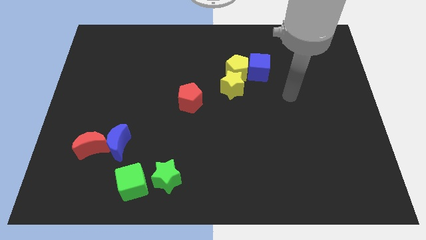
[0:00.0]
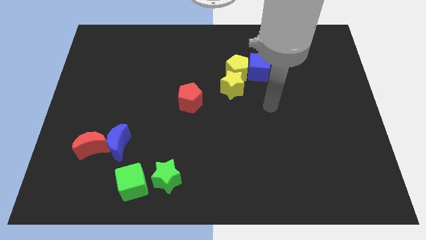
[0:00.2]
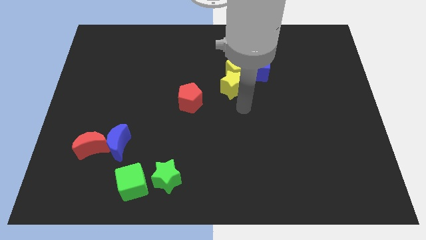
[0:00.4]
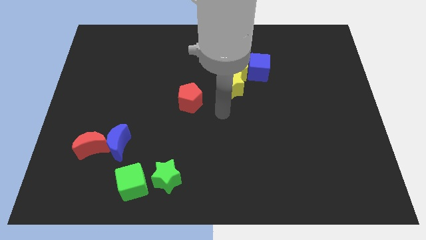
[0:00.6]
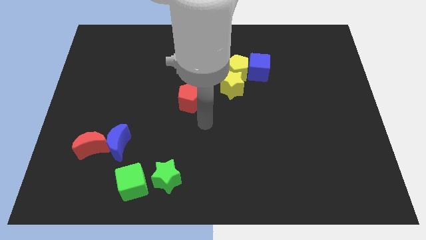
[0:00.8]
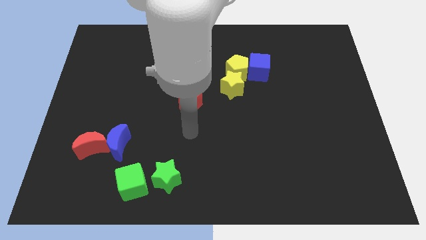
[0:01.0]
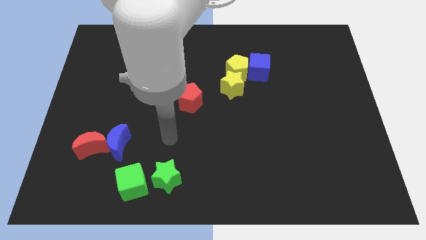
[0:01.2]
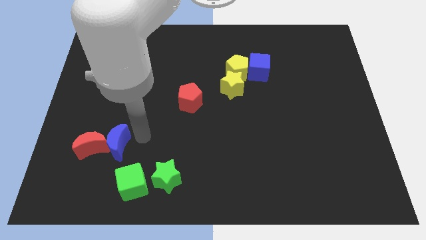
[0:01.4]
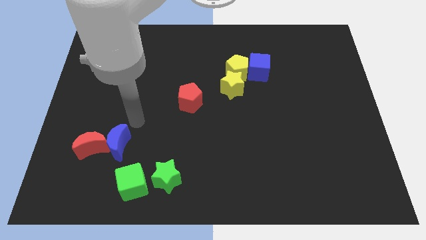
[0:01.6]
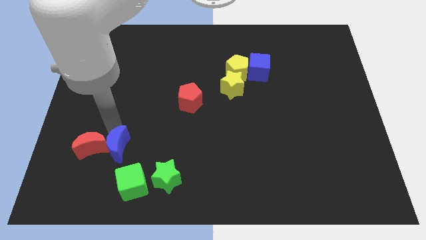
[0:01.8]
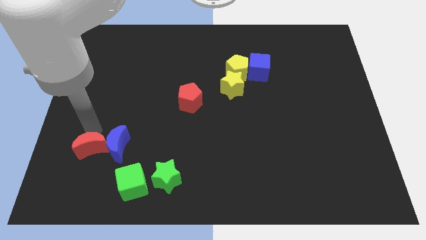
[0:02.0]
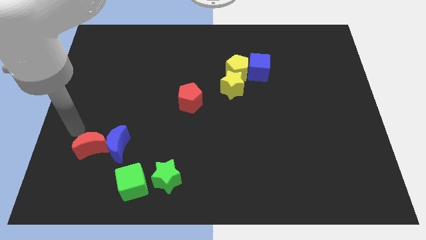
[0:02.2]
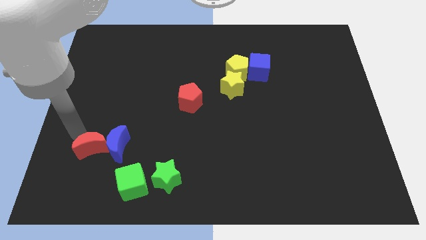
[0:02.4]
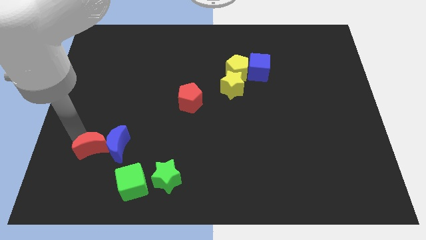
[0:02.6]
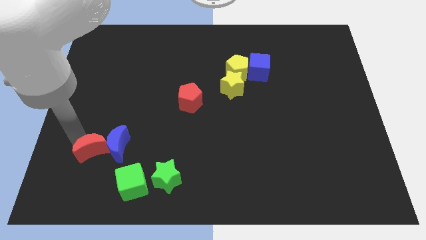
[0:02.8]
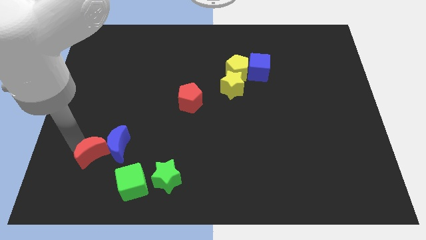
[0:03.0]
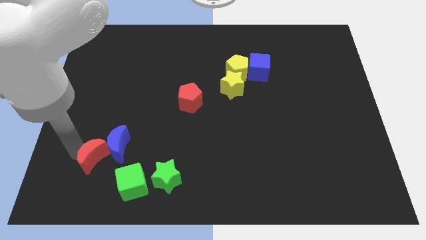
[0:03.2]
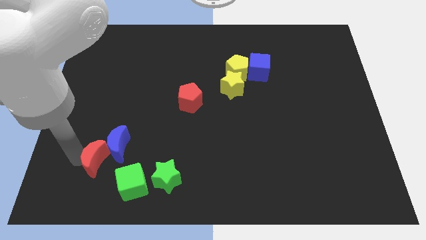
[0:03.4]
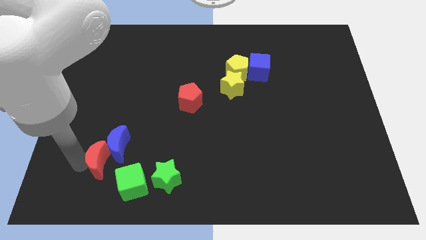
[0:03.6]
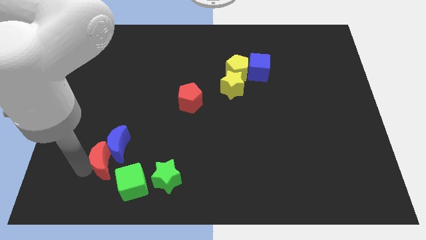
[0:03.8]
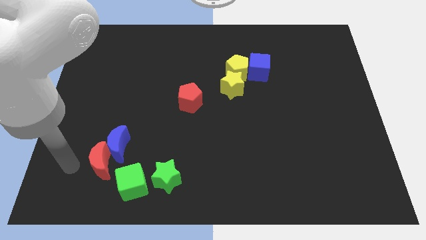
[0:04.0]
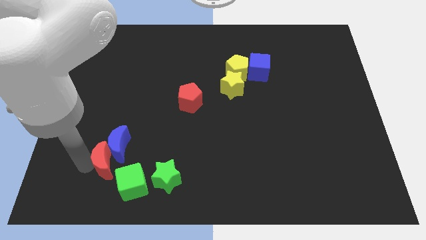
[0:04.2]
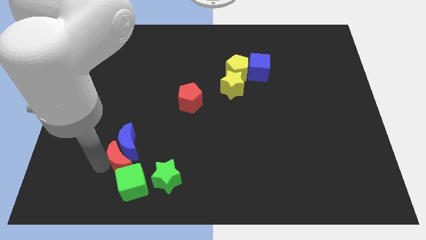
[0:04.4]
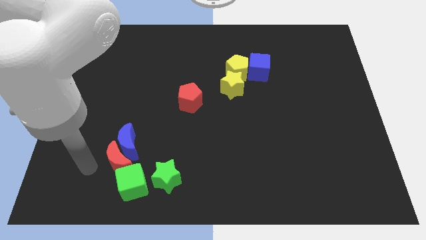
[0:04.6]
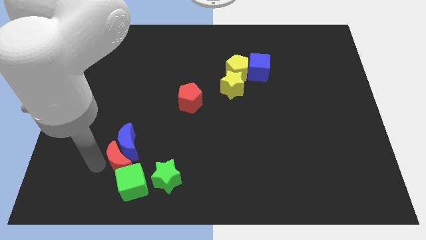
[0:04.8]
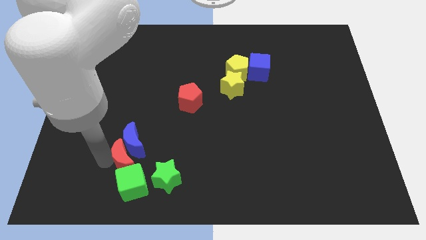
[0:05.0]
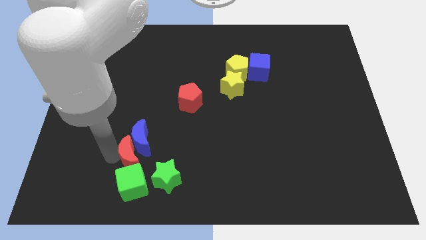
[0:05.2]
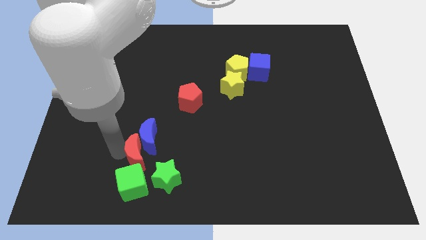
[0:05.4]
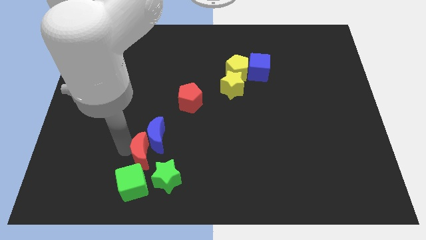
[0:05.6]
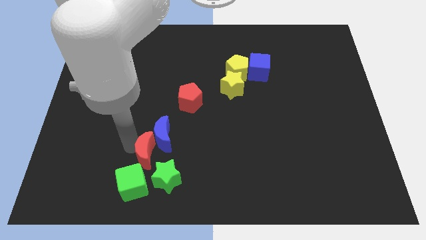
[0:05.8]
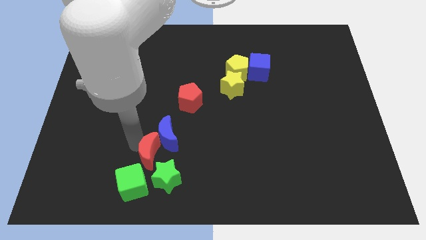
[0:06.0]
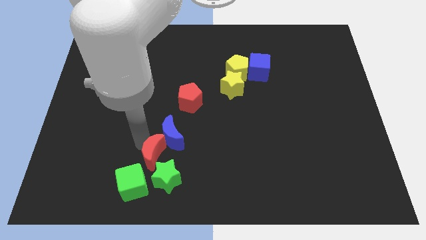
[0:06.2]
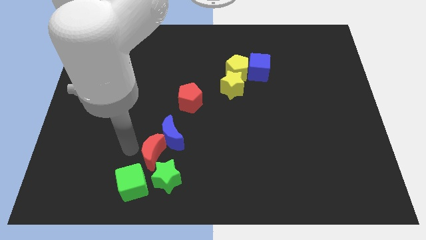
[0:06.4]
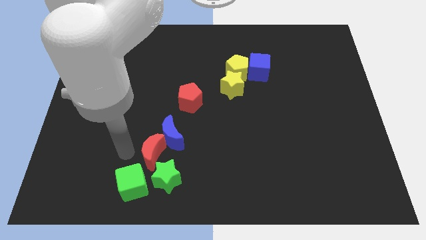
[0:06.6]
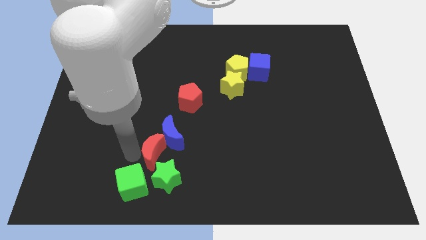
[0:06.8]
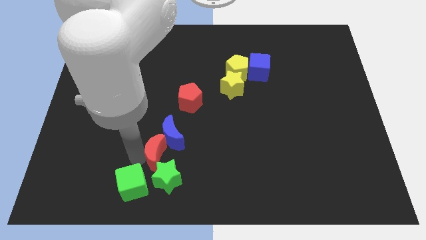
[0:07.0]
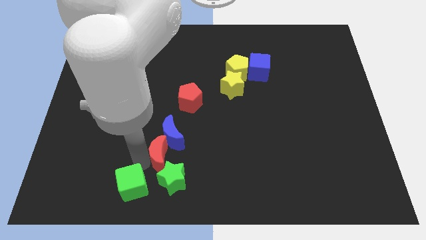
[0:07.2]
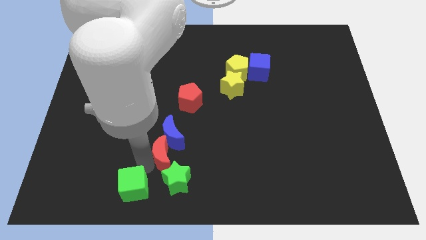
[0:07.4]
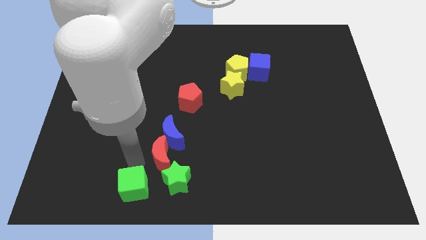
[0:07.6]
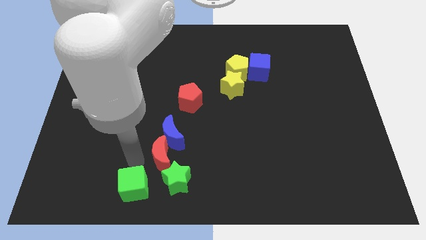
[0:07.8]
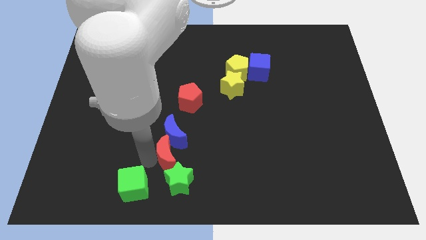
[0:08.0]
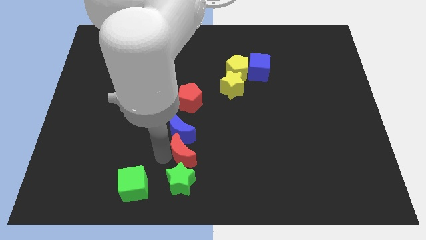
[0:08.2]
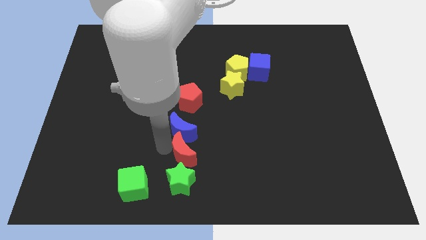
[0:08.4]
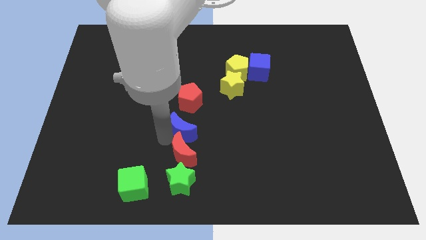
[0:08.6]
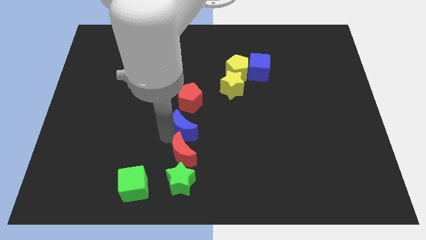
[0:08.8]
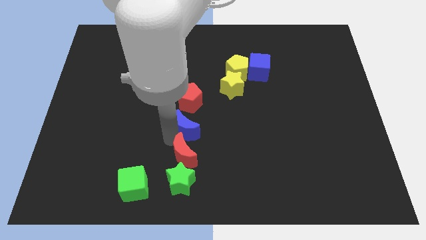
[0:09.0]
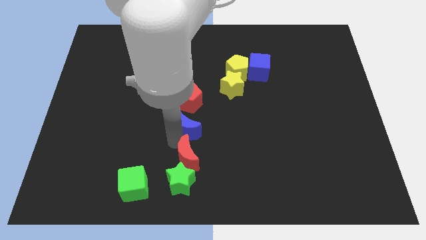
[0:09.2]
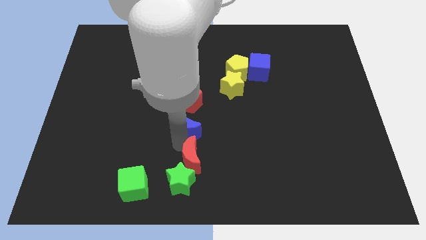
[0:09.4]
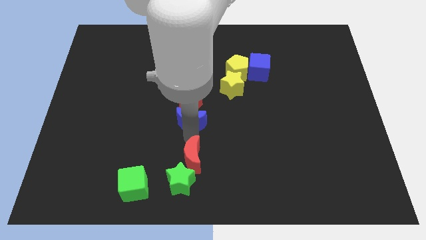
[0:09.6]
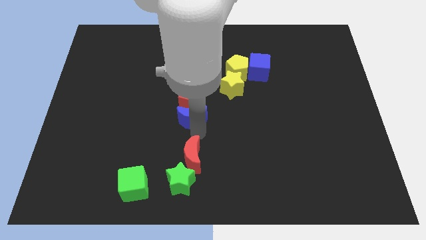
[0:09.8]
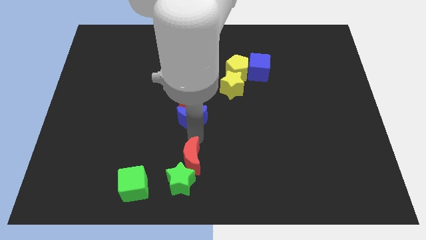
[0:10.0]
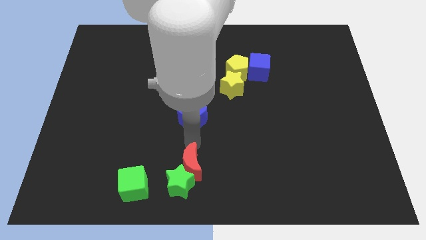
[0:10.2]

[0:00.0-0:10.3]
push the red moon to the right side of the green cube

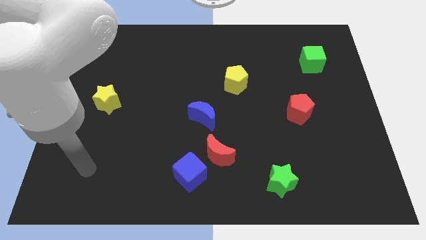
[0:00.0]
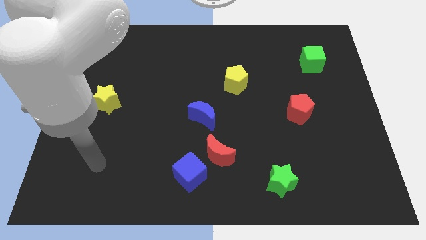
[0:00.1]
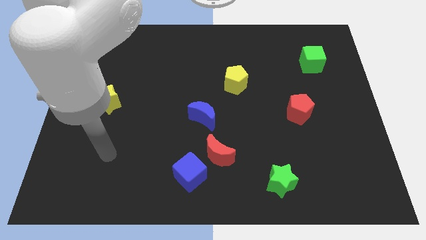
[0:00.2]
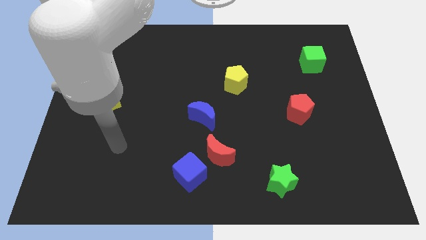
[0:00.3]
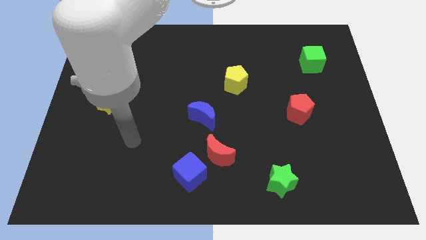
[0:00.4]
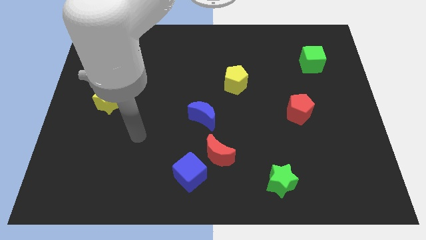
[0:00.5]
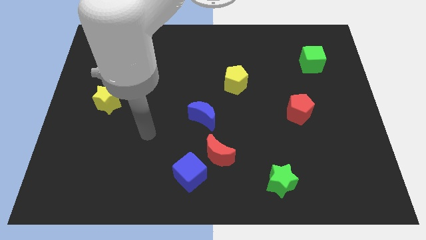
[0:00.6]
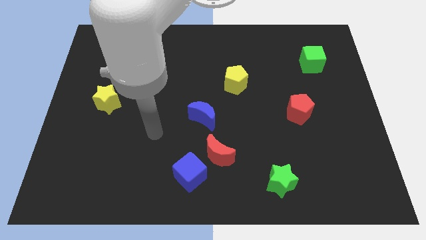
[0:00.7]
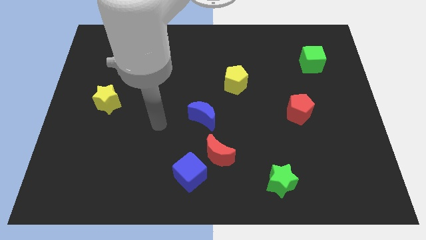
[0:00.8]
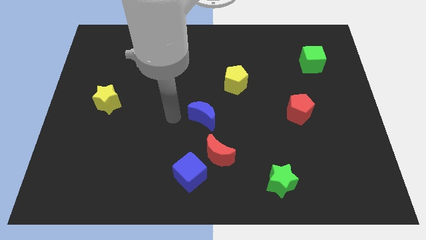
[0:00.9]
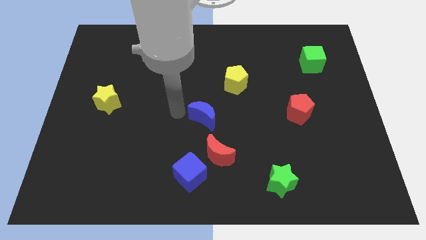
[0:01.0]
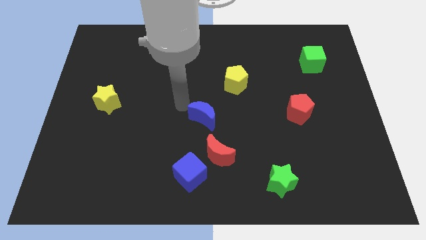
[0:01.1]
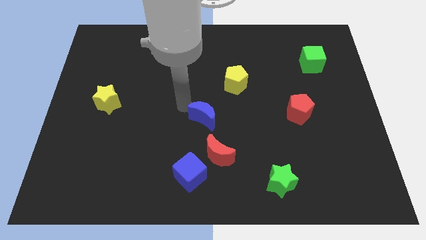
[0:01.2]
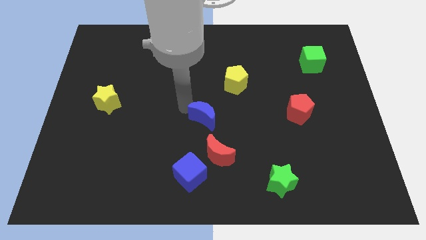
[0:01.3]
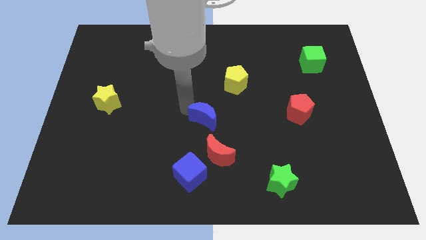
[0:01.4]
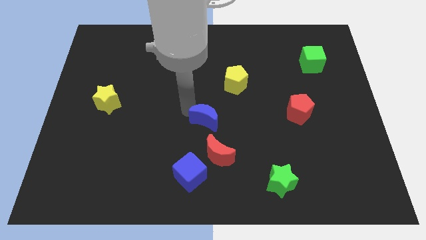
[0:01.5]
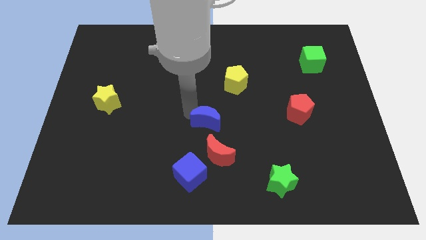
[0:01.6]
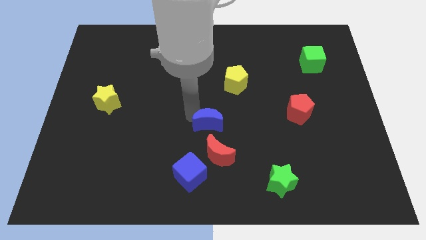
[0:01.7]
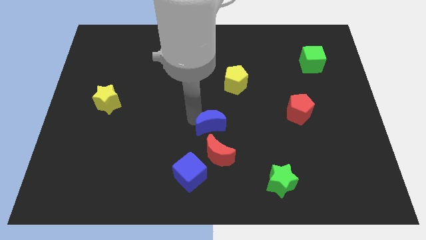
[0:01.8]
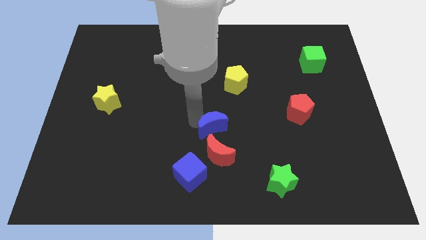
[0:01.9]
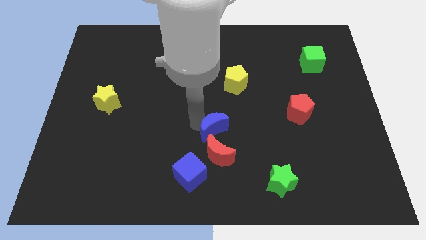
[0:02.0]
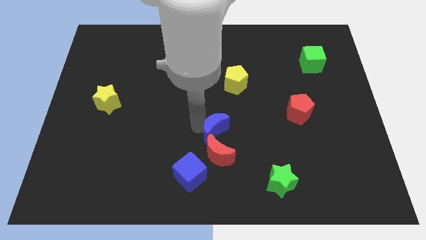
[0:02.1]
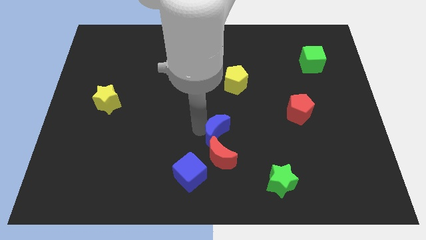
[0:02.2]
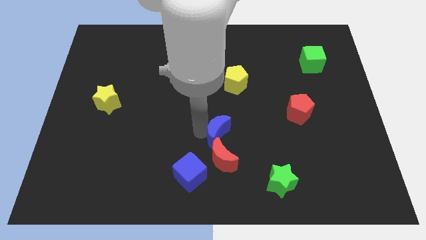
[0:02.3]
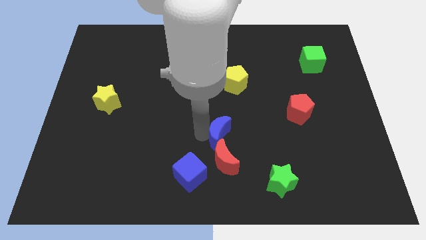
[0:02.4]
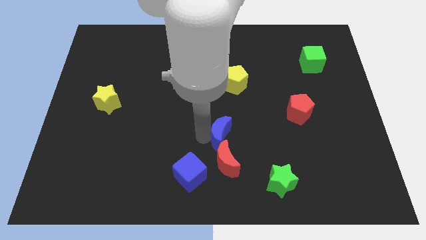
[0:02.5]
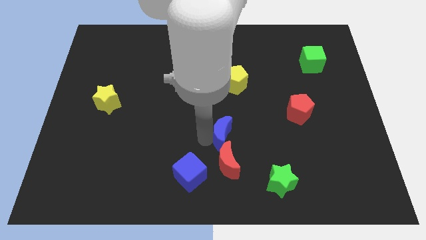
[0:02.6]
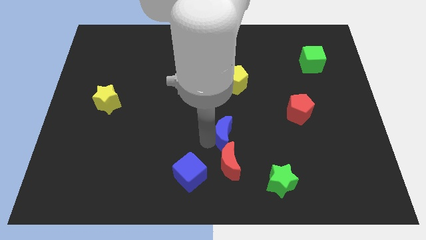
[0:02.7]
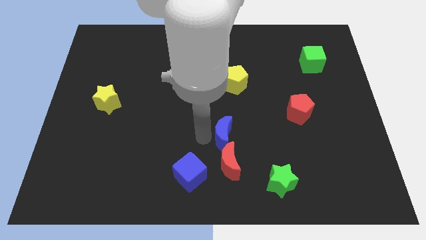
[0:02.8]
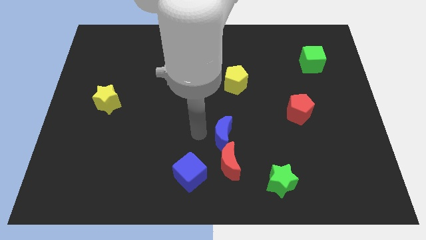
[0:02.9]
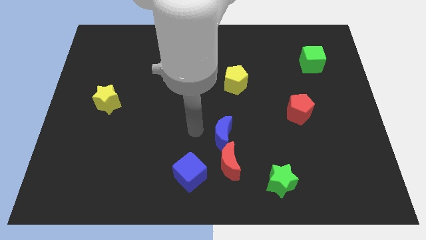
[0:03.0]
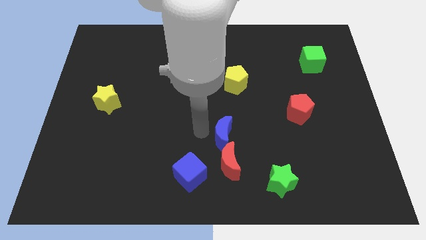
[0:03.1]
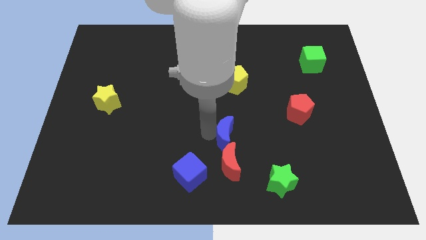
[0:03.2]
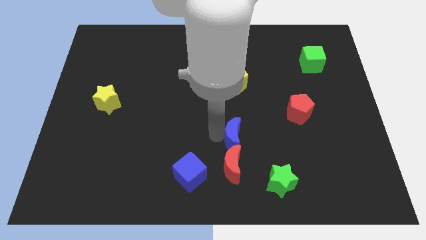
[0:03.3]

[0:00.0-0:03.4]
slide the blue moon diagonally up and to the right of the red moon
